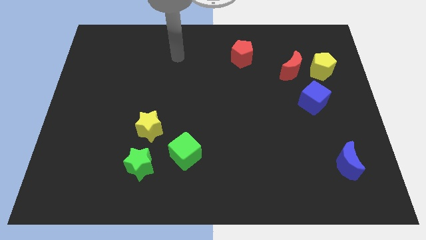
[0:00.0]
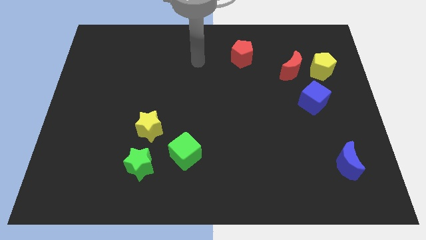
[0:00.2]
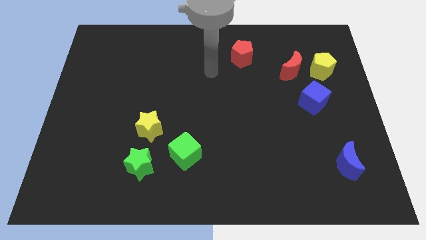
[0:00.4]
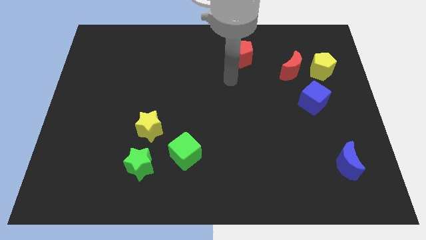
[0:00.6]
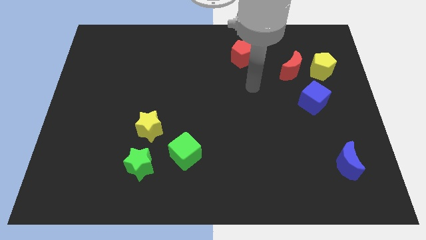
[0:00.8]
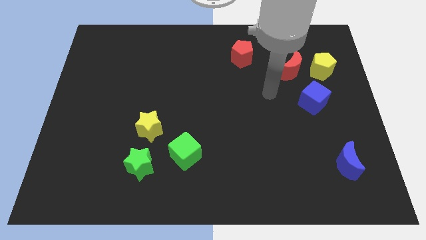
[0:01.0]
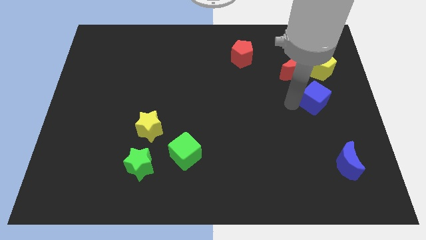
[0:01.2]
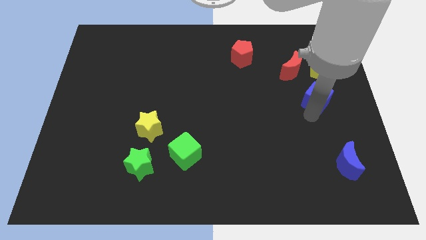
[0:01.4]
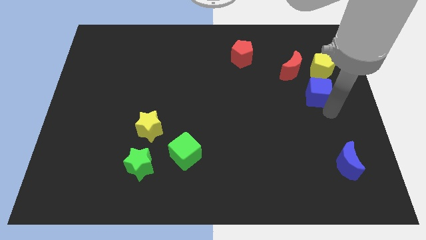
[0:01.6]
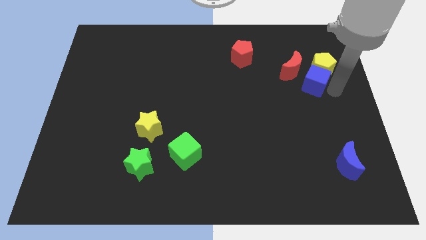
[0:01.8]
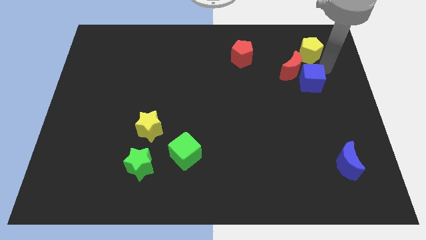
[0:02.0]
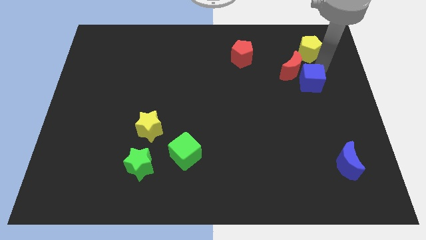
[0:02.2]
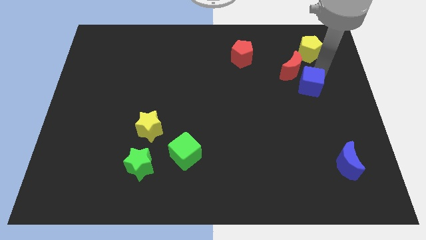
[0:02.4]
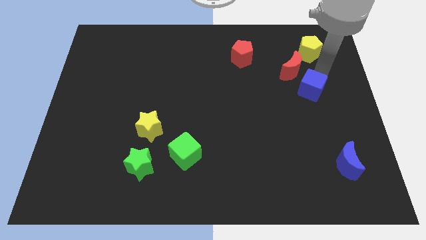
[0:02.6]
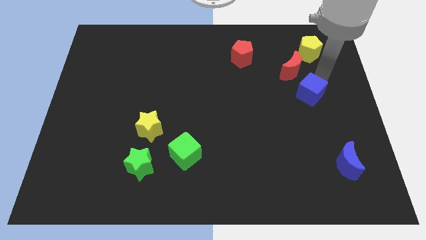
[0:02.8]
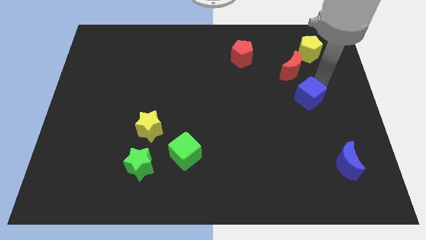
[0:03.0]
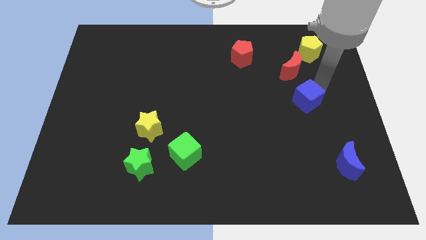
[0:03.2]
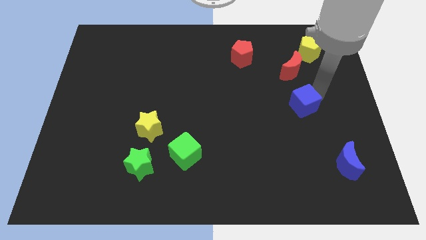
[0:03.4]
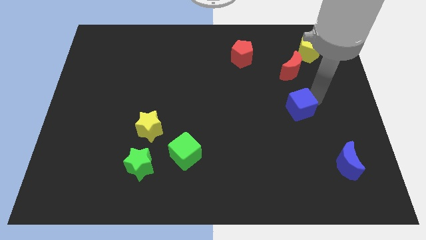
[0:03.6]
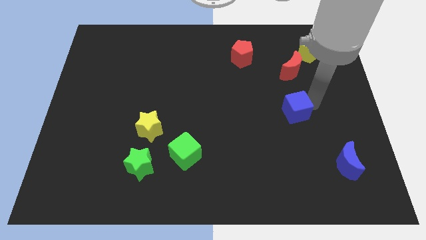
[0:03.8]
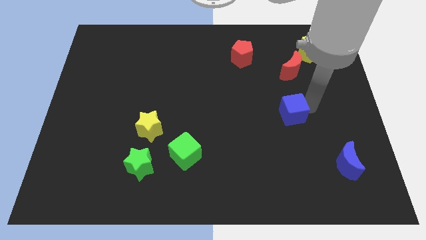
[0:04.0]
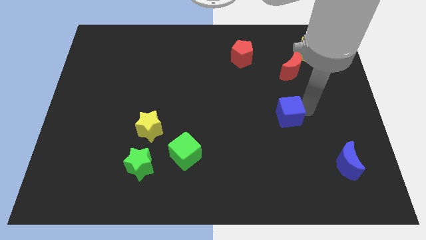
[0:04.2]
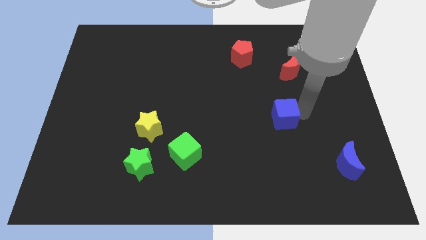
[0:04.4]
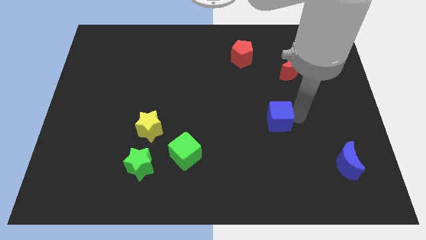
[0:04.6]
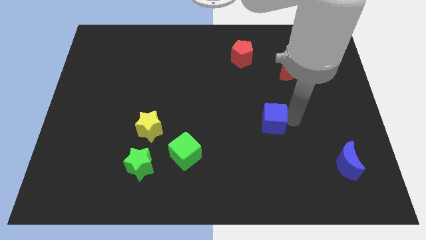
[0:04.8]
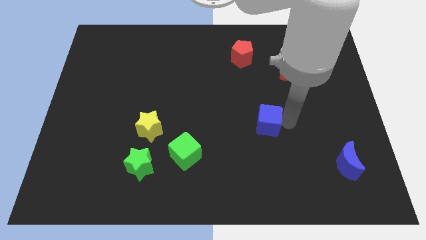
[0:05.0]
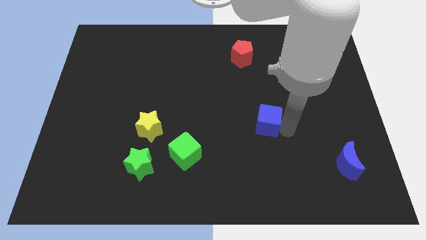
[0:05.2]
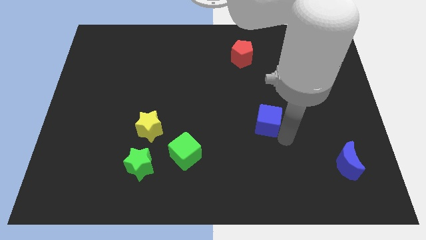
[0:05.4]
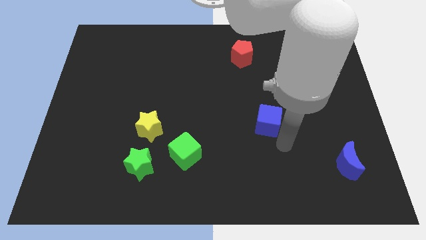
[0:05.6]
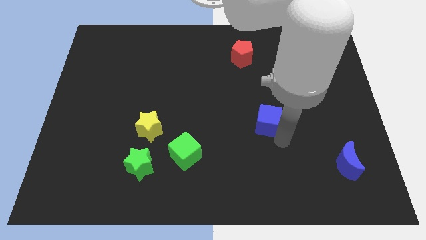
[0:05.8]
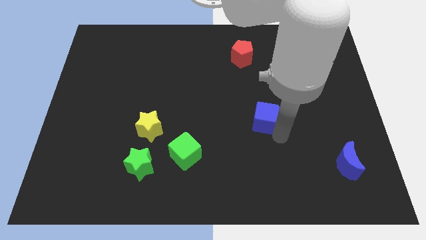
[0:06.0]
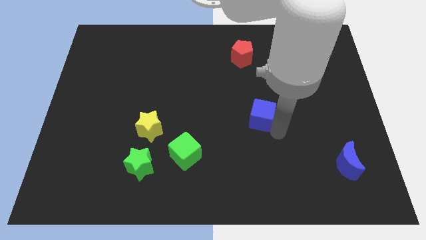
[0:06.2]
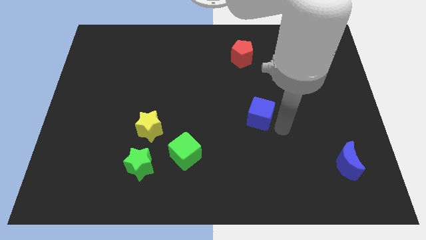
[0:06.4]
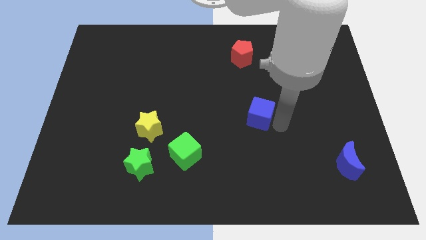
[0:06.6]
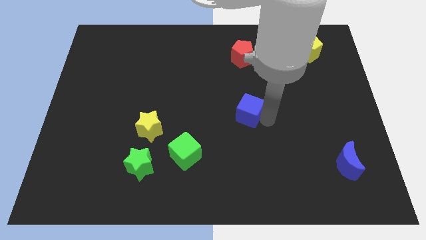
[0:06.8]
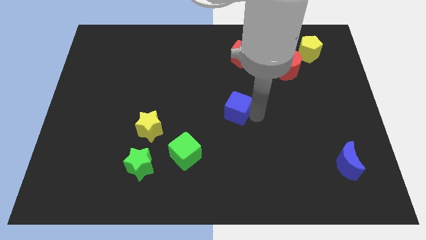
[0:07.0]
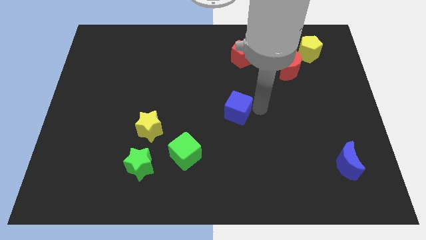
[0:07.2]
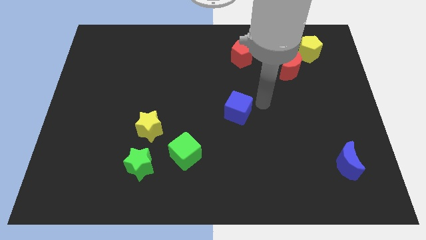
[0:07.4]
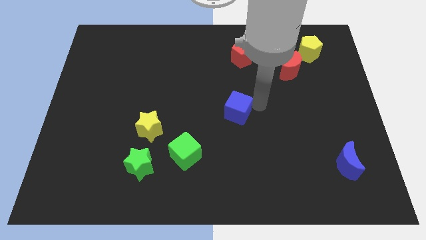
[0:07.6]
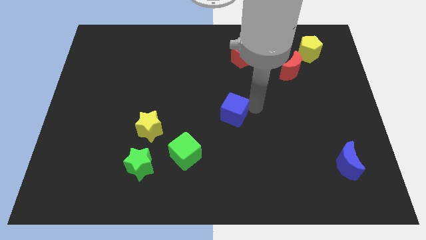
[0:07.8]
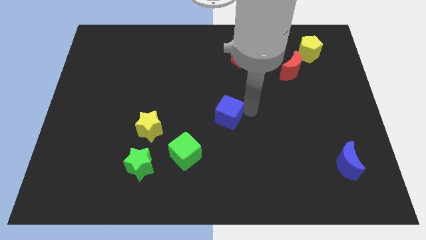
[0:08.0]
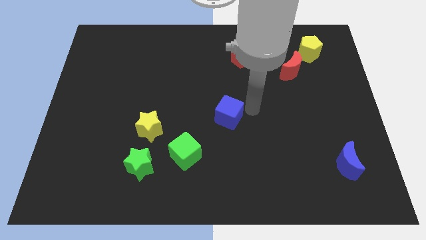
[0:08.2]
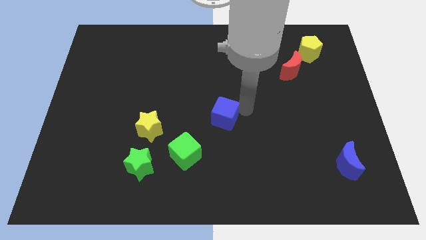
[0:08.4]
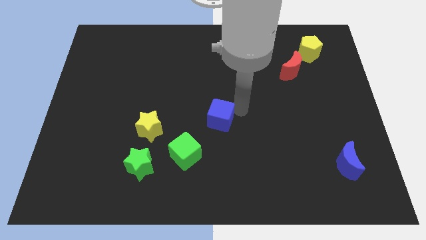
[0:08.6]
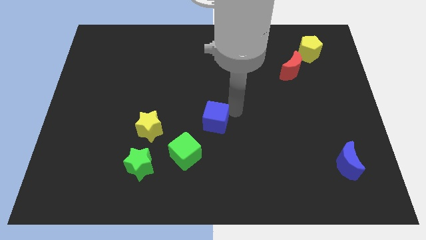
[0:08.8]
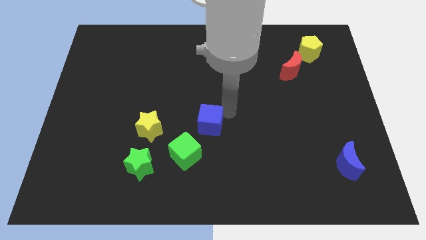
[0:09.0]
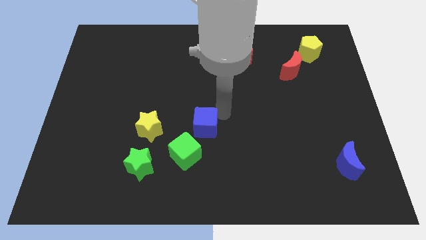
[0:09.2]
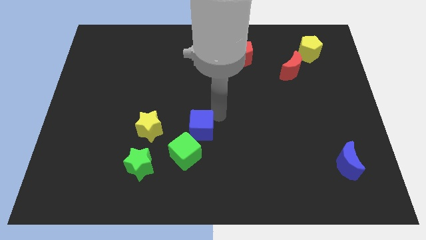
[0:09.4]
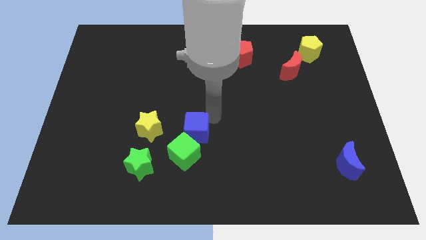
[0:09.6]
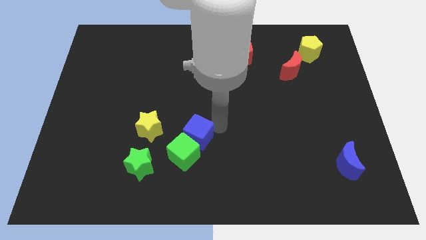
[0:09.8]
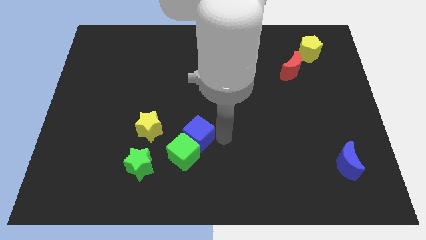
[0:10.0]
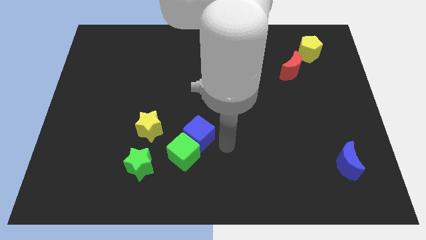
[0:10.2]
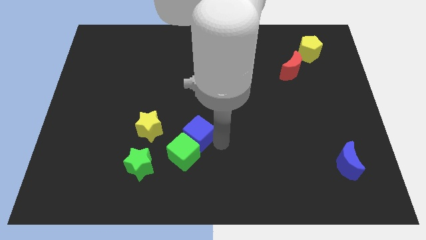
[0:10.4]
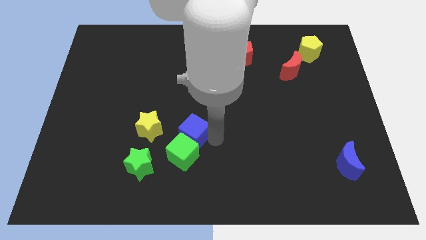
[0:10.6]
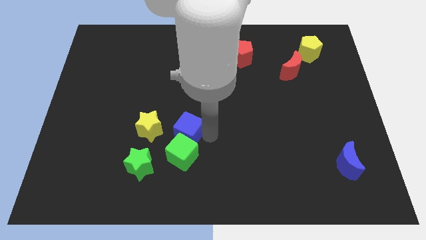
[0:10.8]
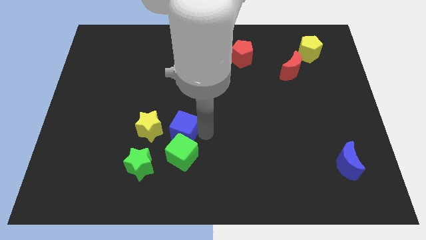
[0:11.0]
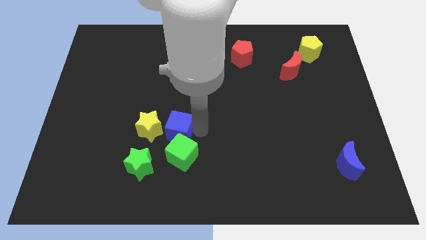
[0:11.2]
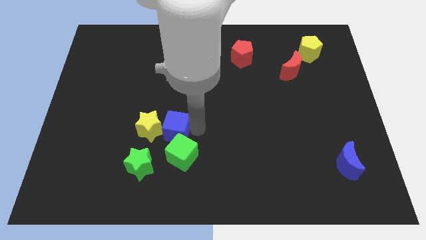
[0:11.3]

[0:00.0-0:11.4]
put the blue cube close to the yellow star

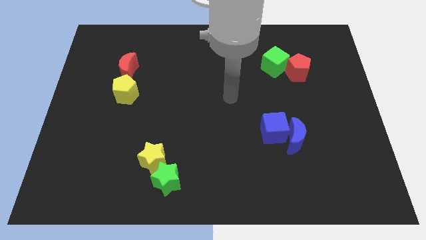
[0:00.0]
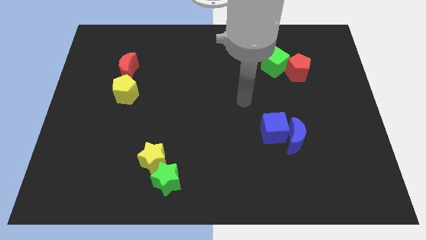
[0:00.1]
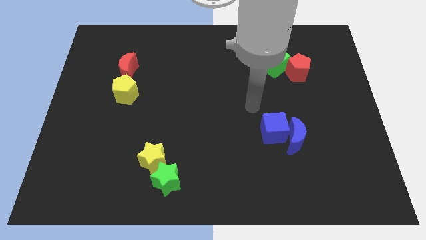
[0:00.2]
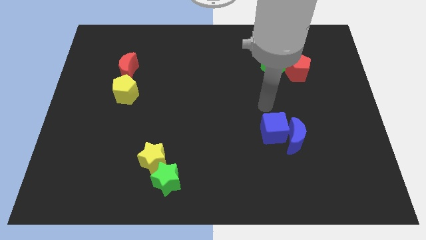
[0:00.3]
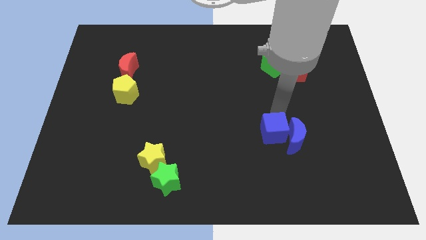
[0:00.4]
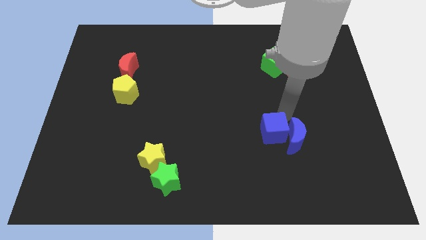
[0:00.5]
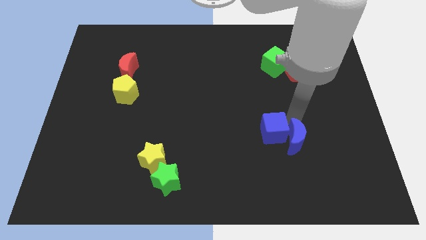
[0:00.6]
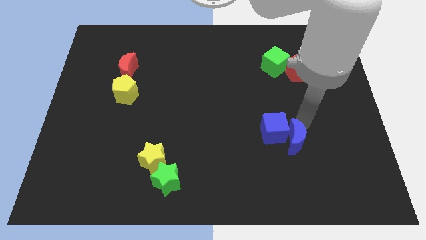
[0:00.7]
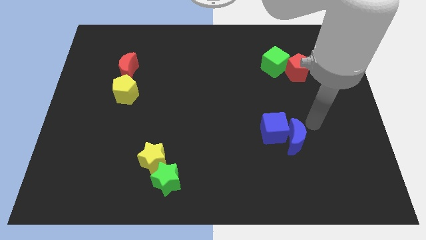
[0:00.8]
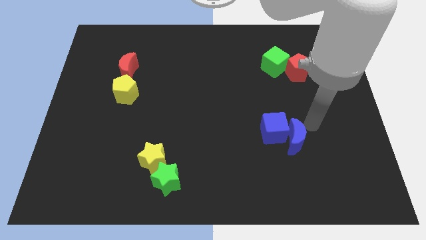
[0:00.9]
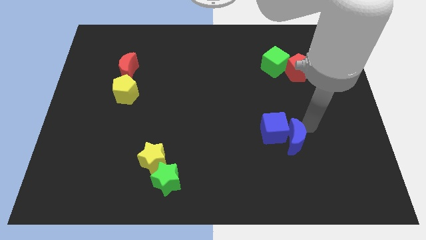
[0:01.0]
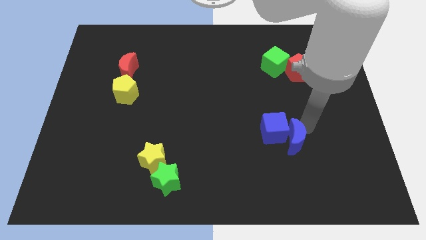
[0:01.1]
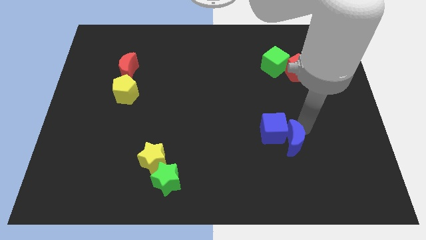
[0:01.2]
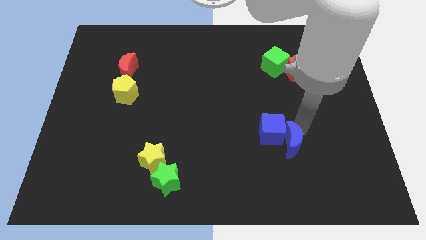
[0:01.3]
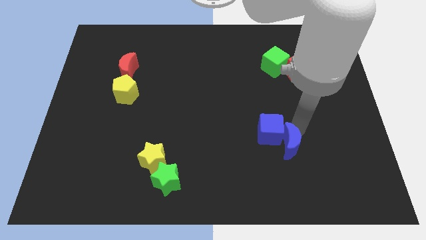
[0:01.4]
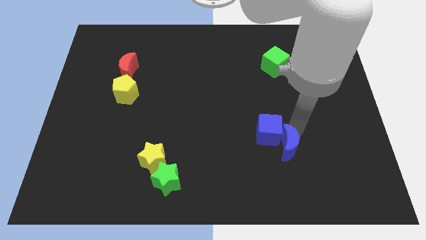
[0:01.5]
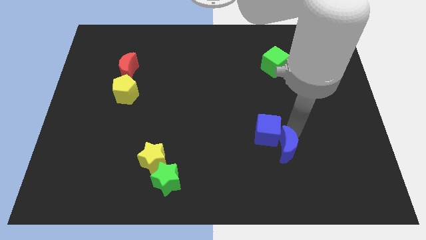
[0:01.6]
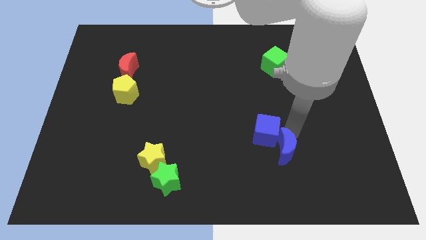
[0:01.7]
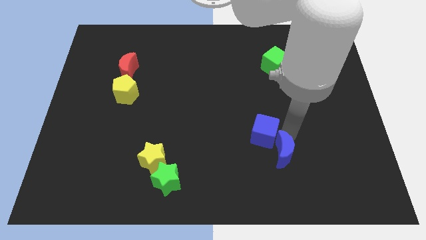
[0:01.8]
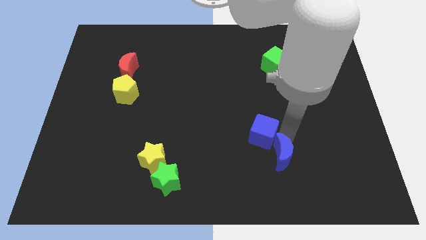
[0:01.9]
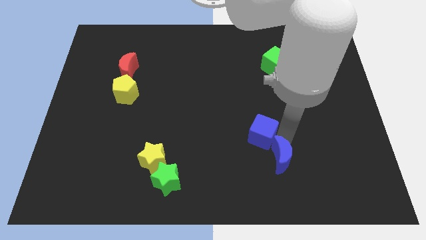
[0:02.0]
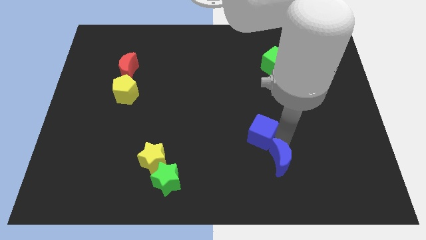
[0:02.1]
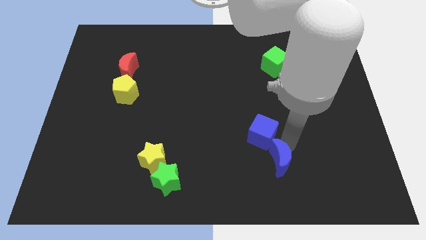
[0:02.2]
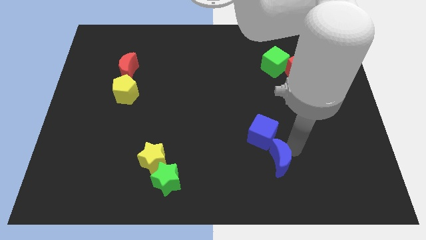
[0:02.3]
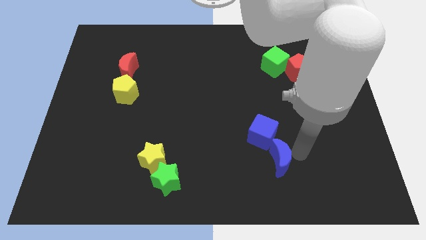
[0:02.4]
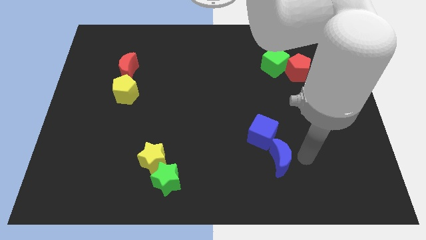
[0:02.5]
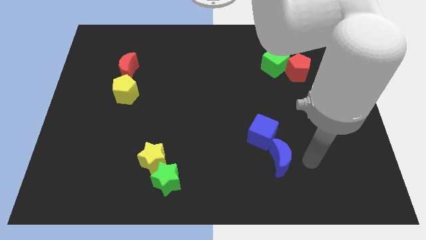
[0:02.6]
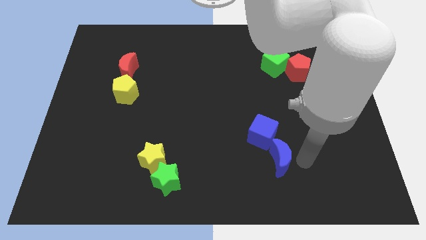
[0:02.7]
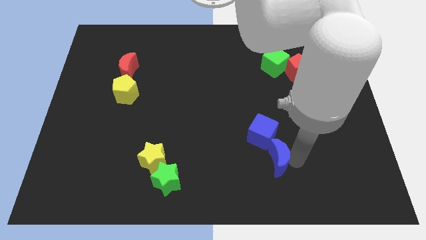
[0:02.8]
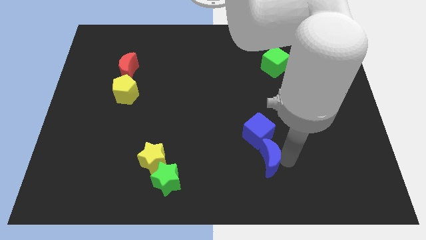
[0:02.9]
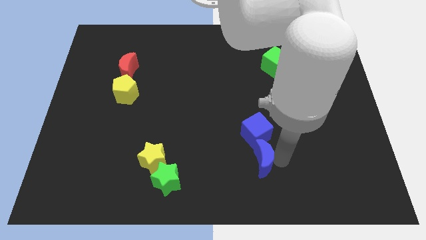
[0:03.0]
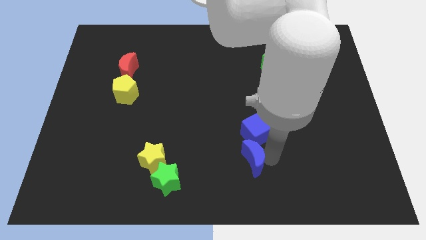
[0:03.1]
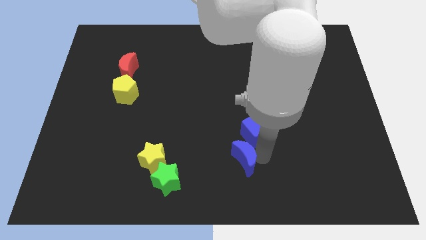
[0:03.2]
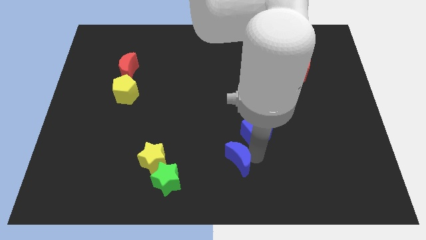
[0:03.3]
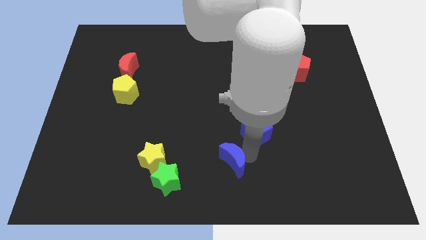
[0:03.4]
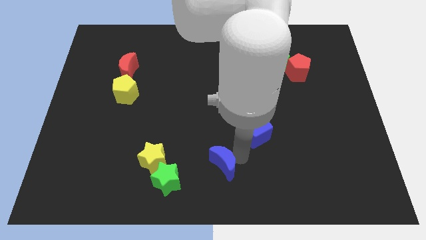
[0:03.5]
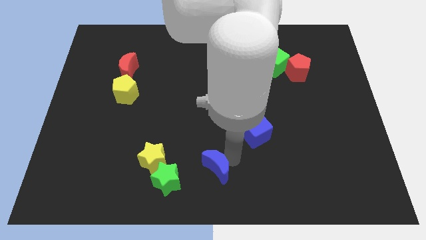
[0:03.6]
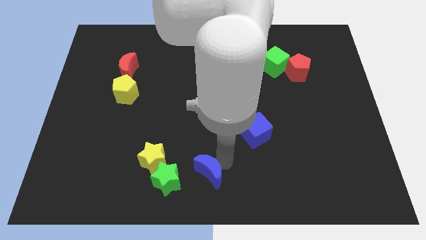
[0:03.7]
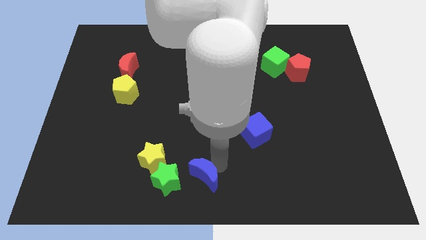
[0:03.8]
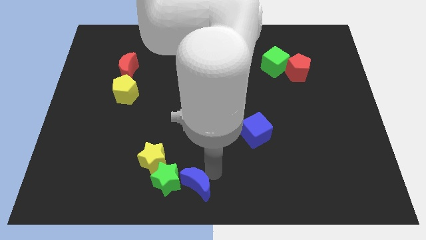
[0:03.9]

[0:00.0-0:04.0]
slide the blue moon to the green star
